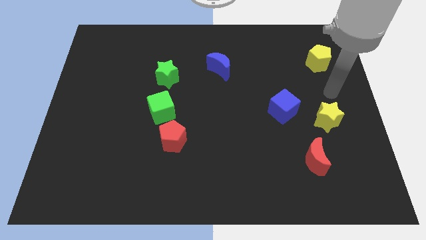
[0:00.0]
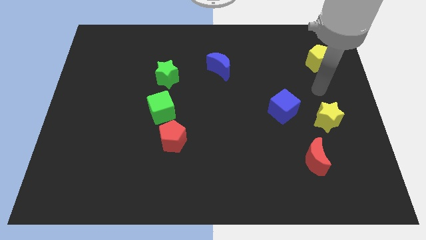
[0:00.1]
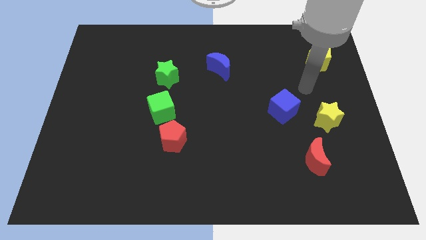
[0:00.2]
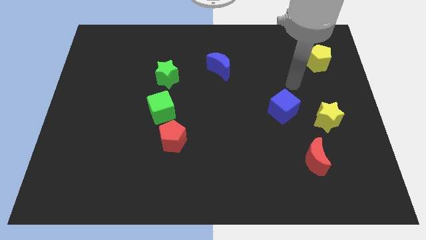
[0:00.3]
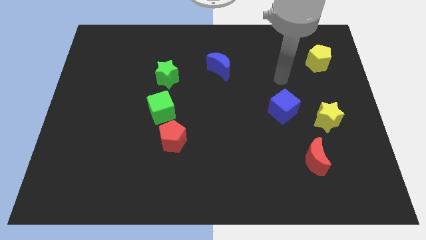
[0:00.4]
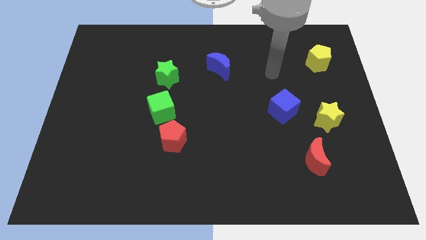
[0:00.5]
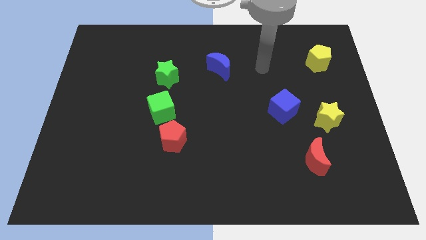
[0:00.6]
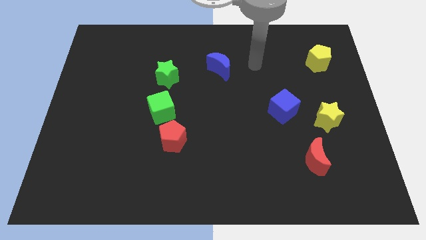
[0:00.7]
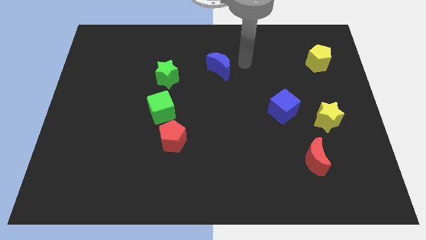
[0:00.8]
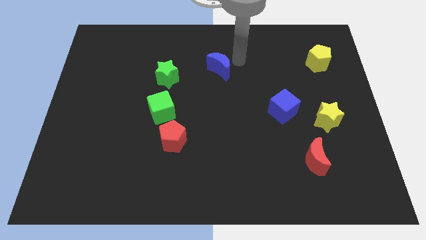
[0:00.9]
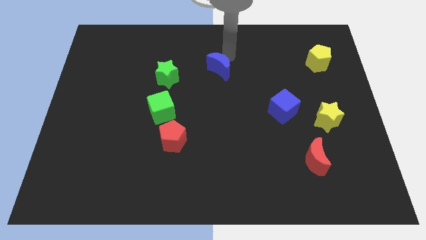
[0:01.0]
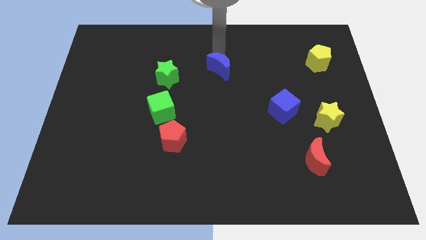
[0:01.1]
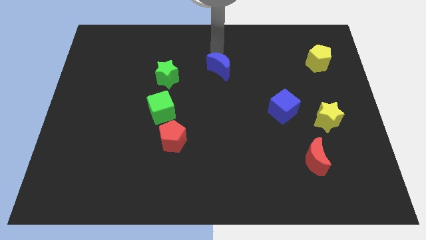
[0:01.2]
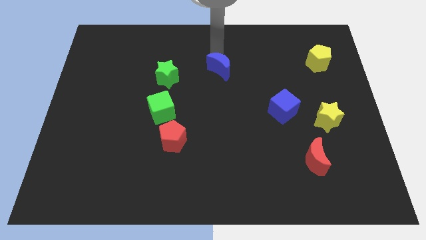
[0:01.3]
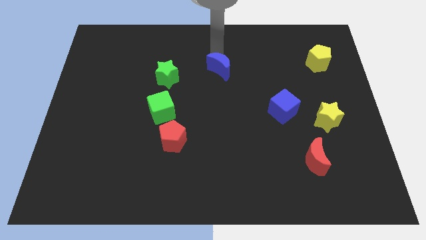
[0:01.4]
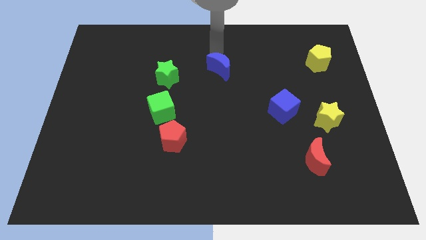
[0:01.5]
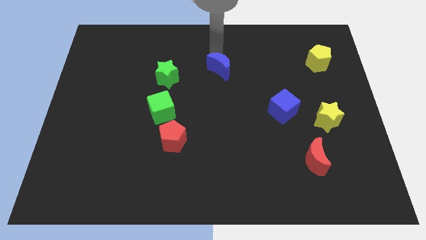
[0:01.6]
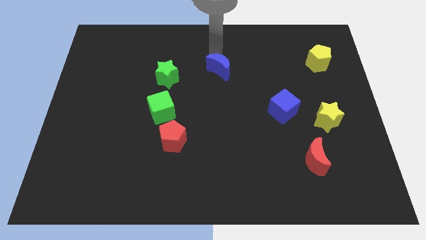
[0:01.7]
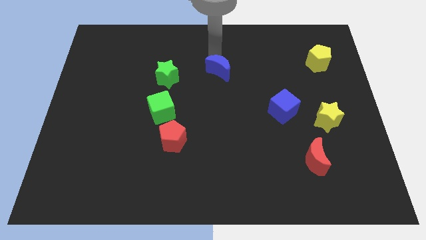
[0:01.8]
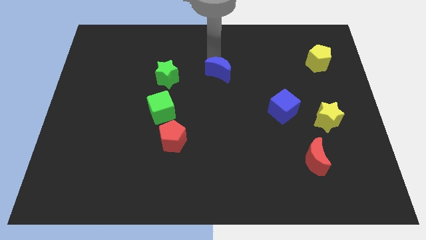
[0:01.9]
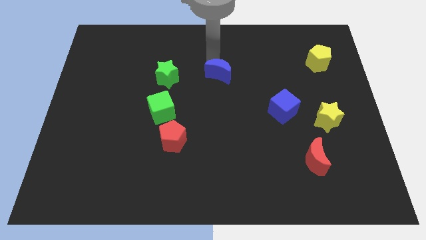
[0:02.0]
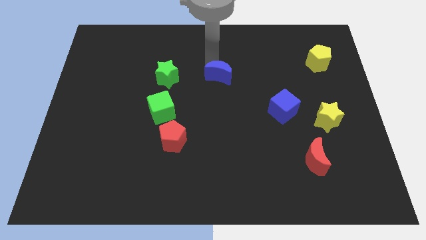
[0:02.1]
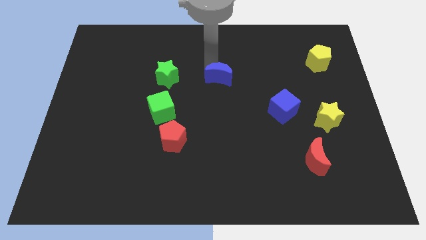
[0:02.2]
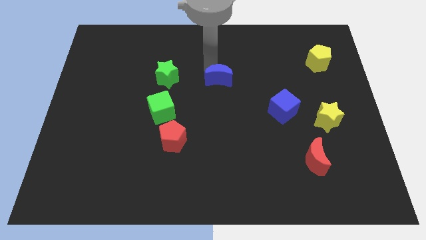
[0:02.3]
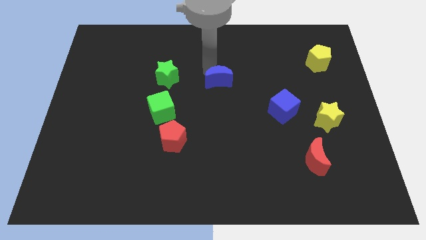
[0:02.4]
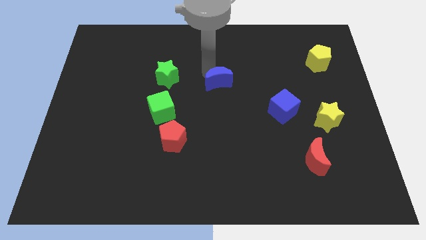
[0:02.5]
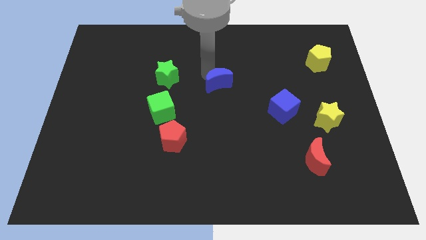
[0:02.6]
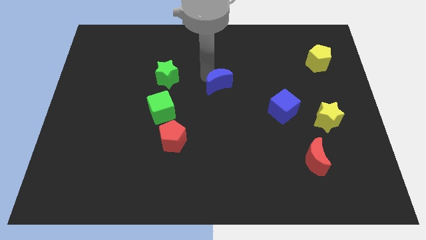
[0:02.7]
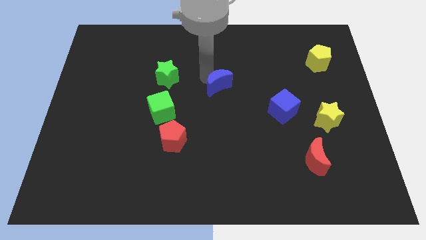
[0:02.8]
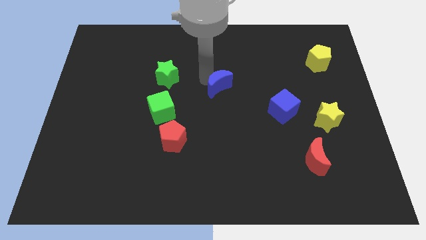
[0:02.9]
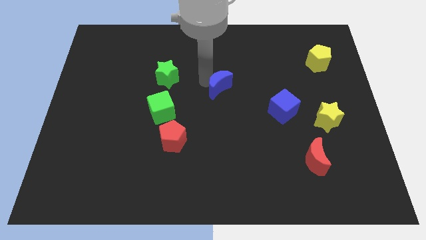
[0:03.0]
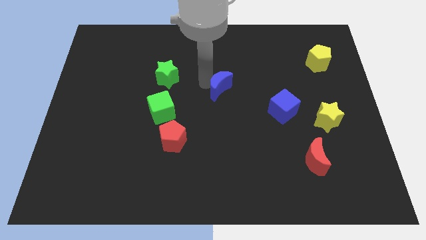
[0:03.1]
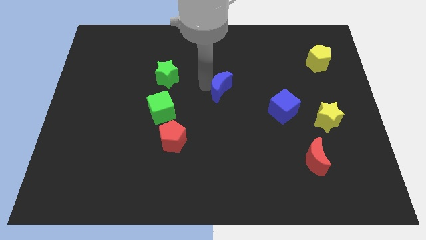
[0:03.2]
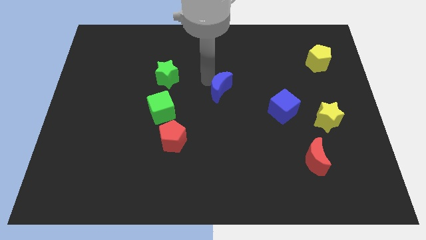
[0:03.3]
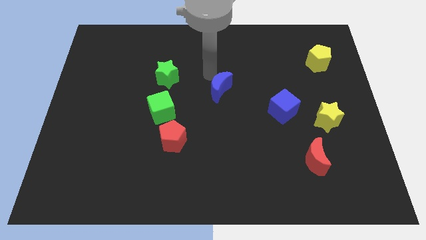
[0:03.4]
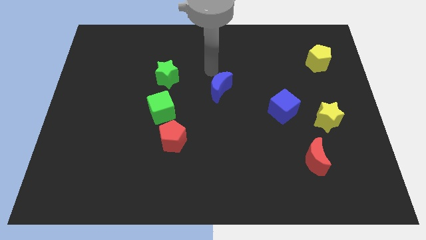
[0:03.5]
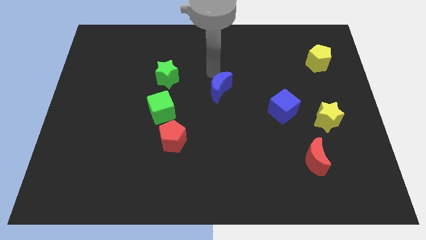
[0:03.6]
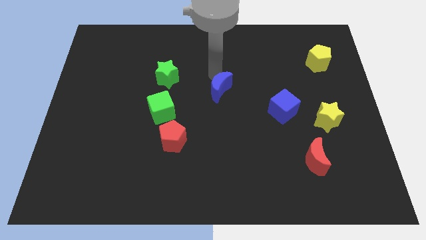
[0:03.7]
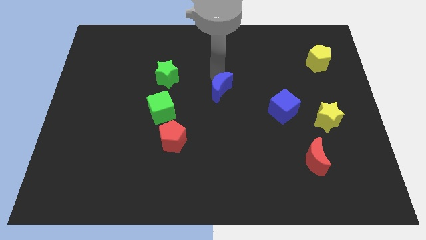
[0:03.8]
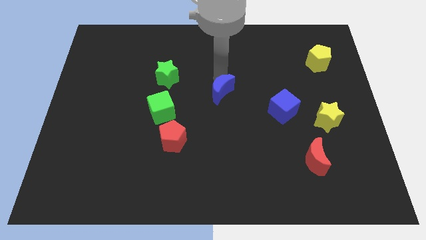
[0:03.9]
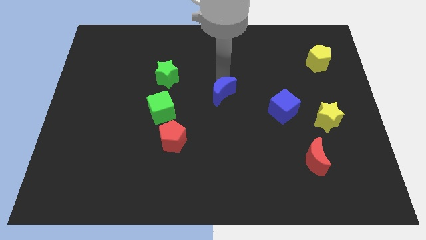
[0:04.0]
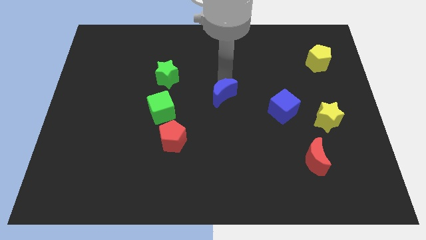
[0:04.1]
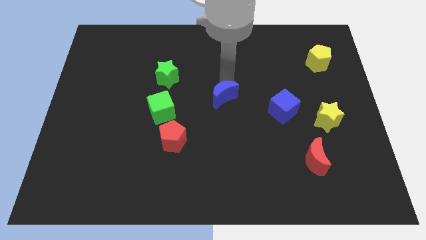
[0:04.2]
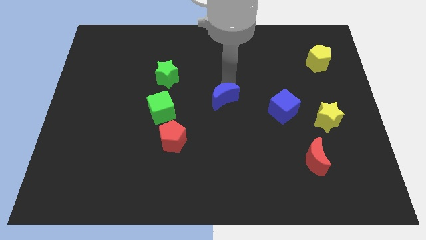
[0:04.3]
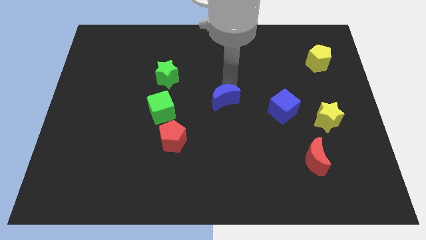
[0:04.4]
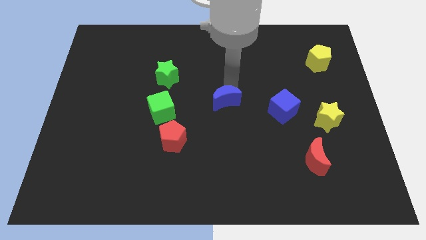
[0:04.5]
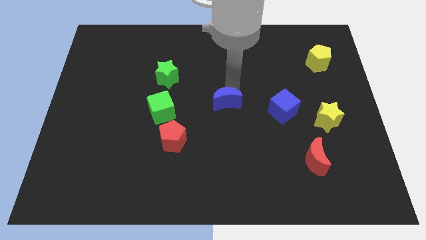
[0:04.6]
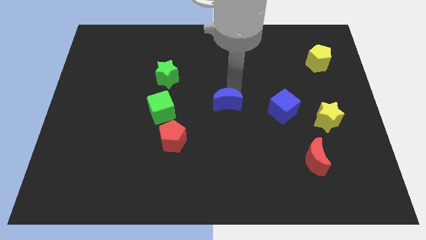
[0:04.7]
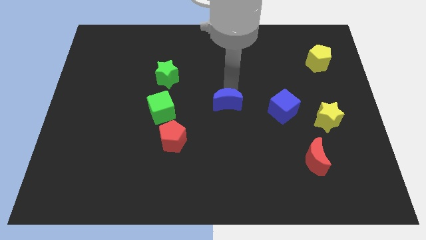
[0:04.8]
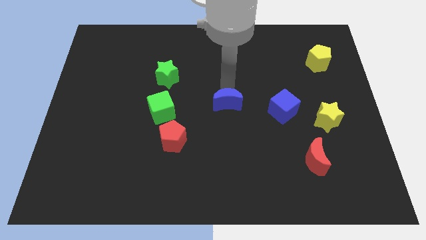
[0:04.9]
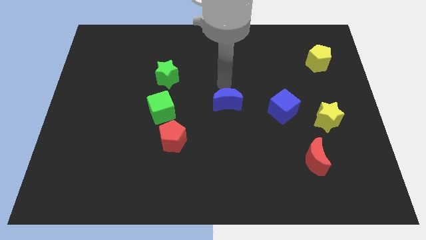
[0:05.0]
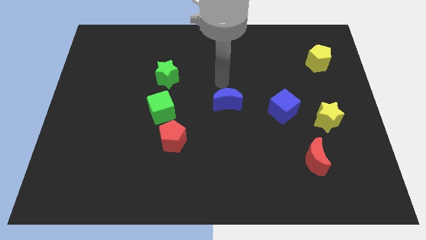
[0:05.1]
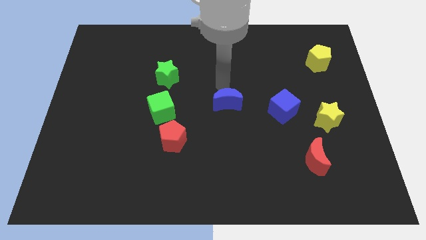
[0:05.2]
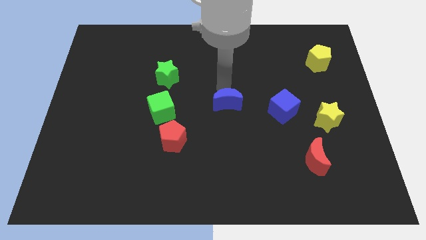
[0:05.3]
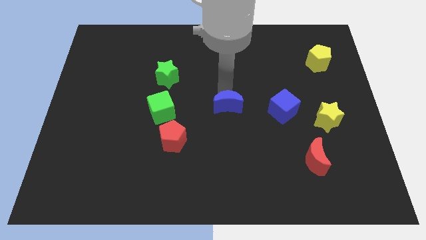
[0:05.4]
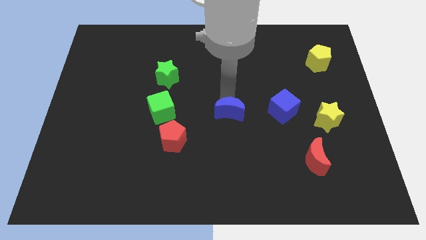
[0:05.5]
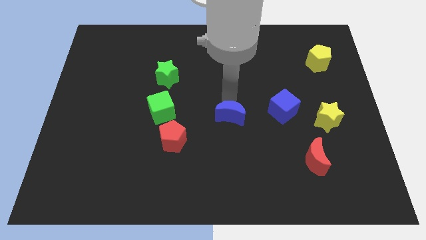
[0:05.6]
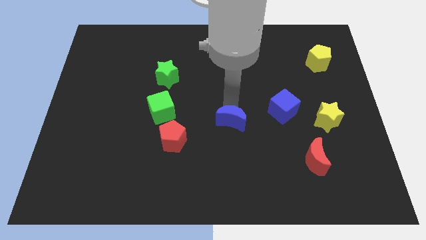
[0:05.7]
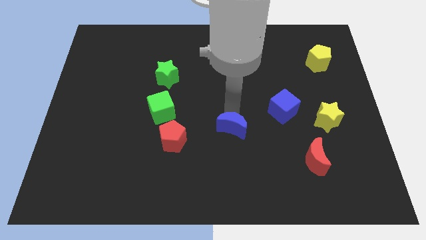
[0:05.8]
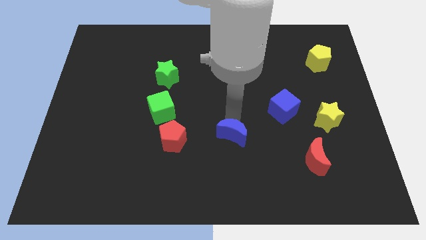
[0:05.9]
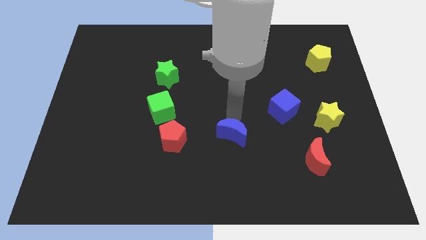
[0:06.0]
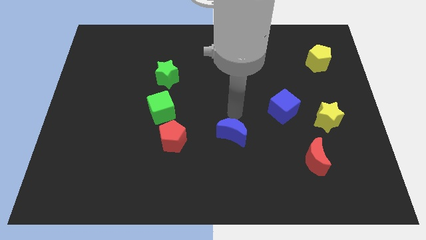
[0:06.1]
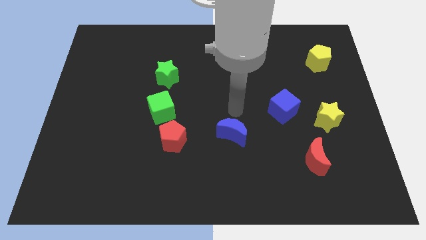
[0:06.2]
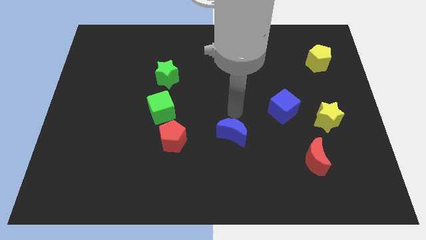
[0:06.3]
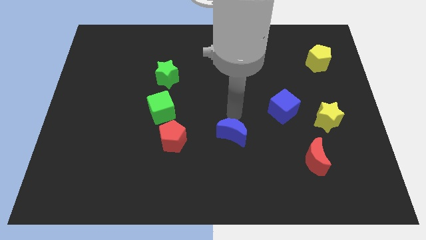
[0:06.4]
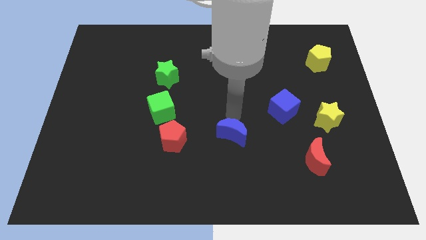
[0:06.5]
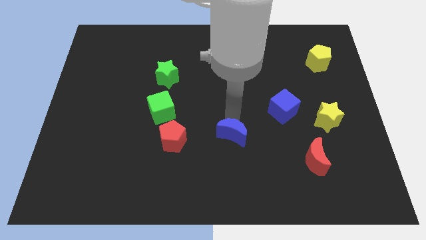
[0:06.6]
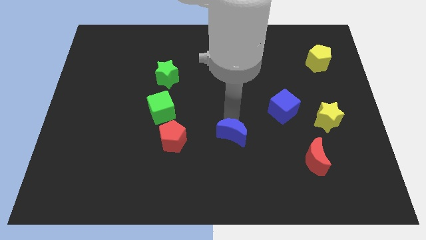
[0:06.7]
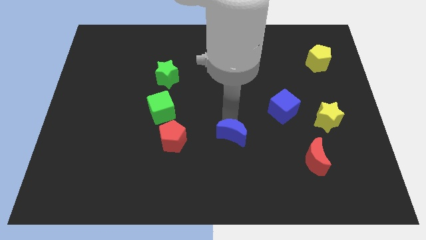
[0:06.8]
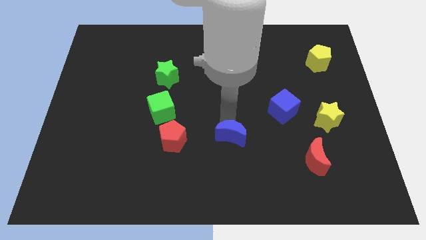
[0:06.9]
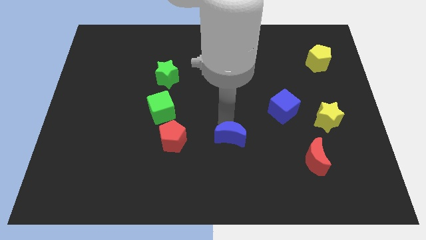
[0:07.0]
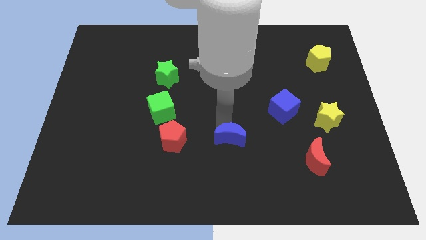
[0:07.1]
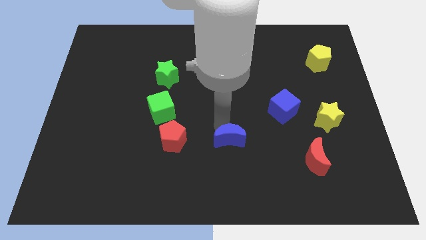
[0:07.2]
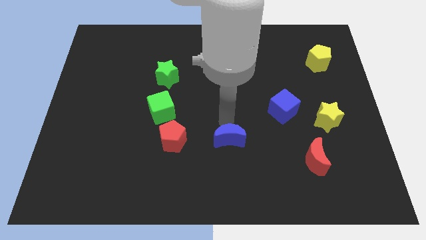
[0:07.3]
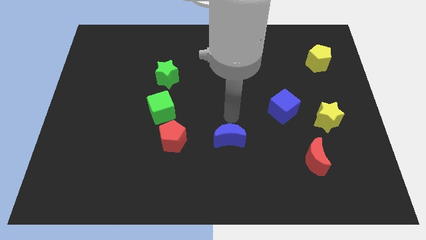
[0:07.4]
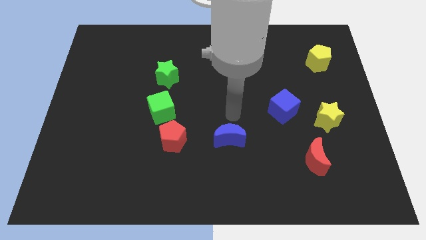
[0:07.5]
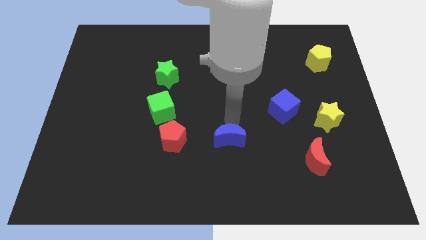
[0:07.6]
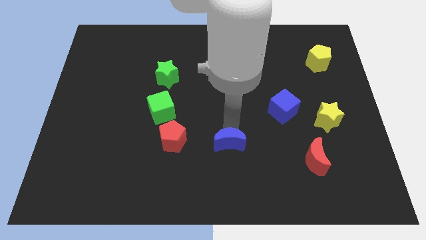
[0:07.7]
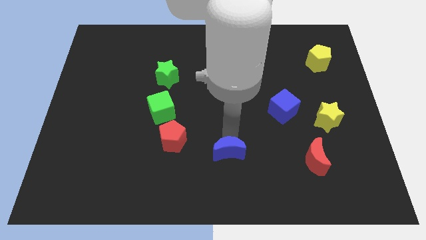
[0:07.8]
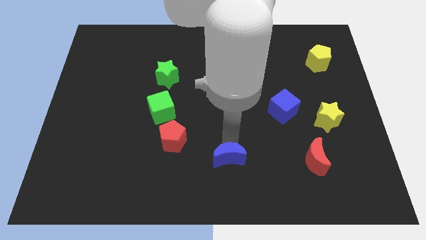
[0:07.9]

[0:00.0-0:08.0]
slide the blue moon to the bottom
